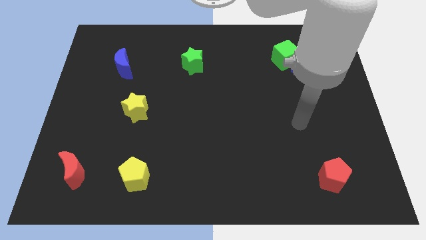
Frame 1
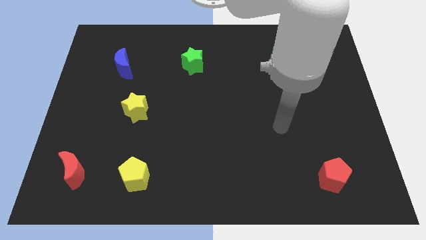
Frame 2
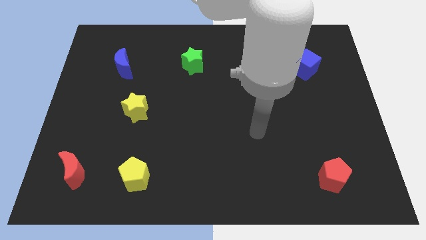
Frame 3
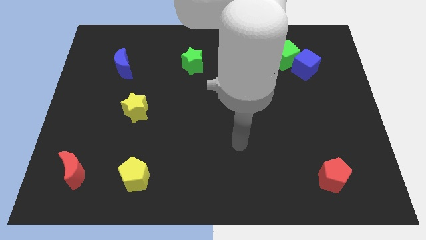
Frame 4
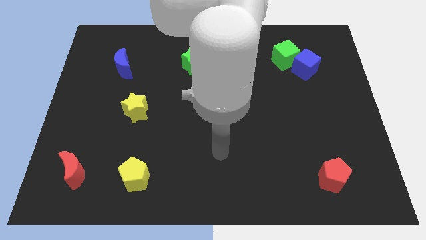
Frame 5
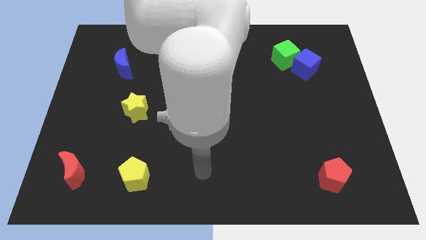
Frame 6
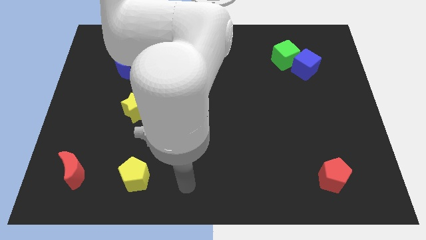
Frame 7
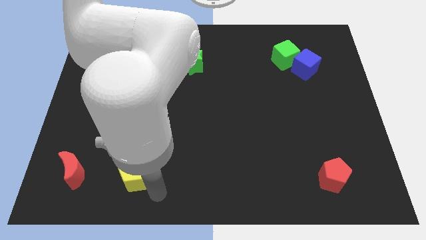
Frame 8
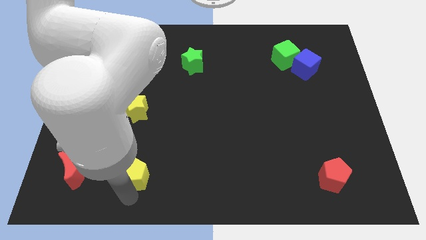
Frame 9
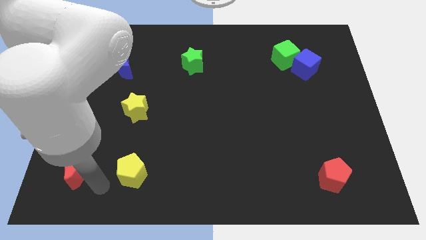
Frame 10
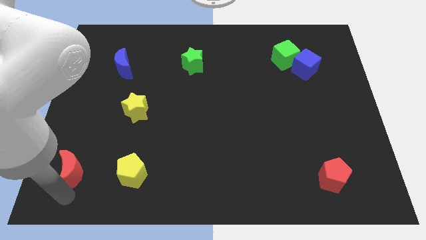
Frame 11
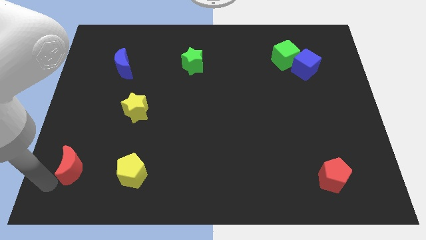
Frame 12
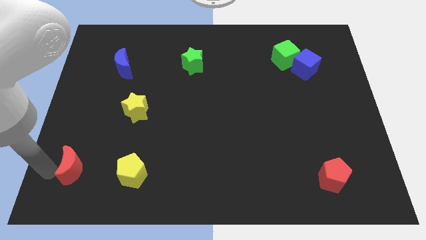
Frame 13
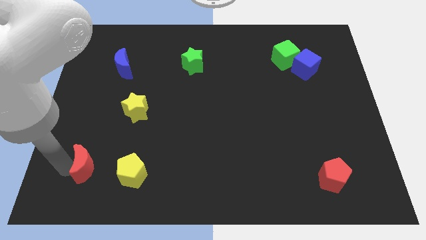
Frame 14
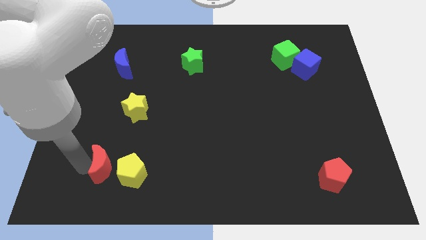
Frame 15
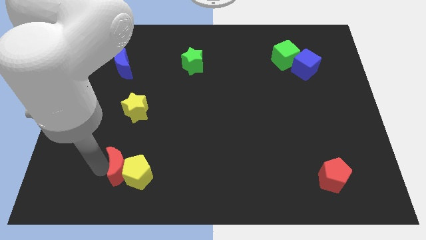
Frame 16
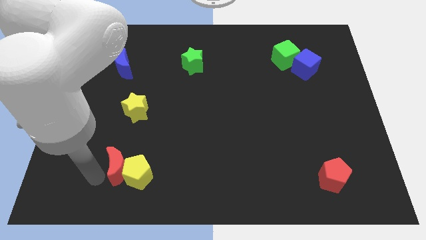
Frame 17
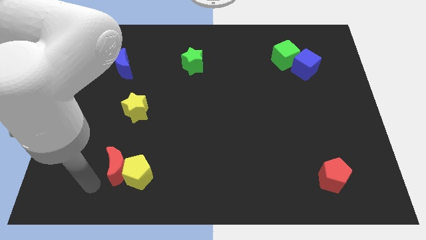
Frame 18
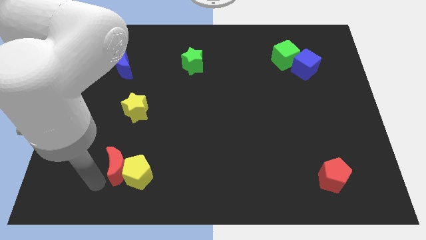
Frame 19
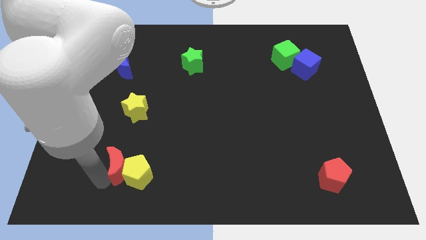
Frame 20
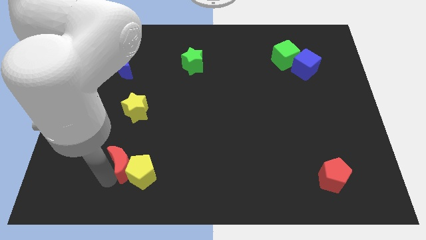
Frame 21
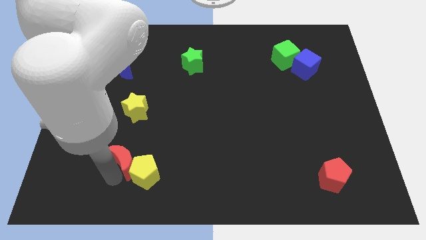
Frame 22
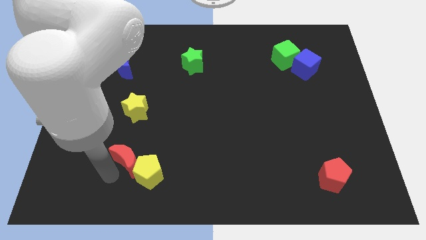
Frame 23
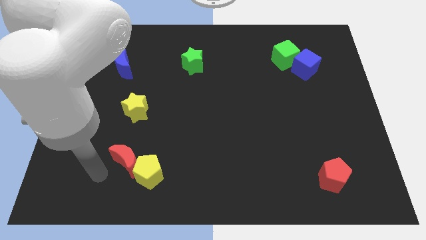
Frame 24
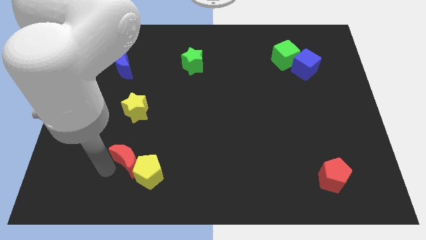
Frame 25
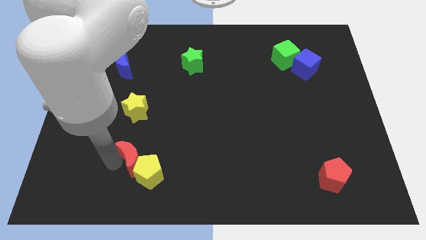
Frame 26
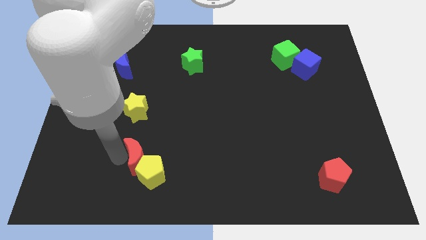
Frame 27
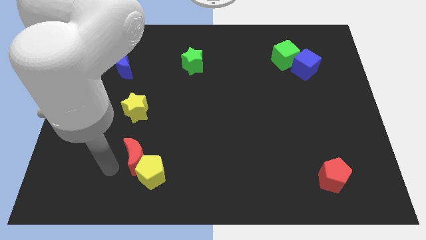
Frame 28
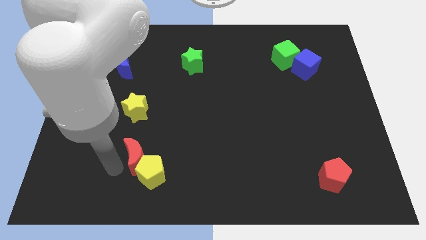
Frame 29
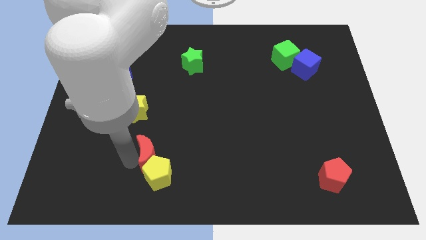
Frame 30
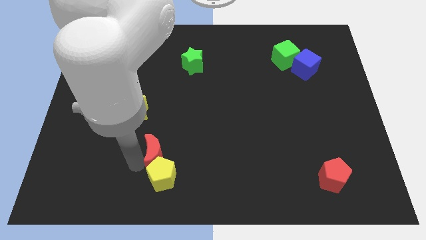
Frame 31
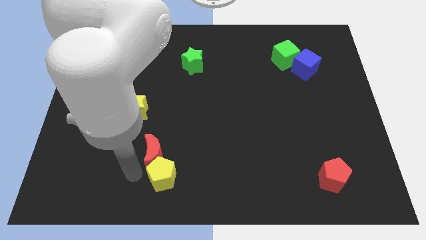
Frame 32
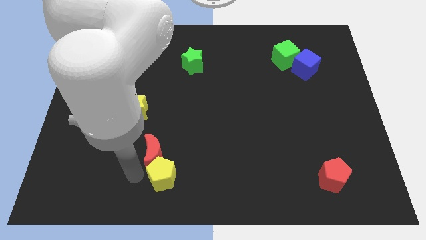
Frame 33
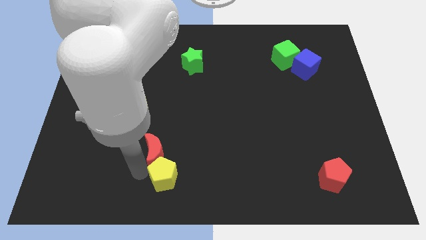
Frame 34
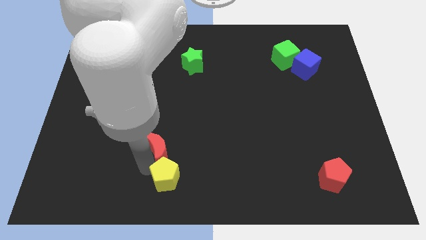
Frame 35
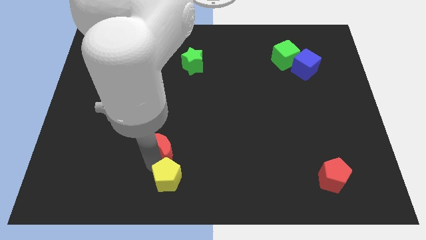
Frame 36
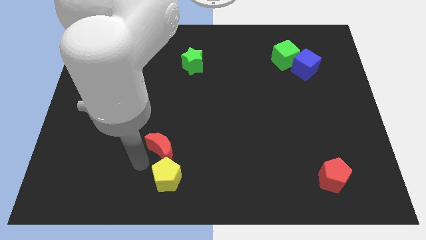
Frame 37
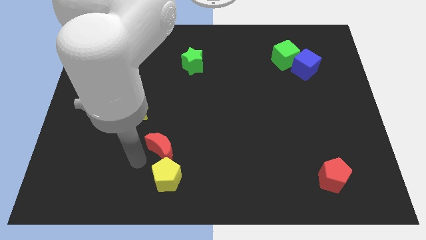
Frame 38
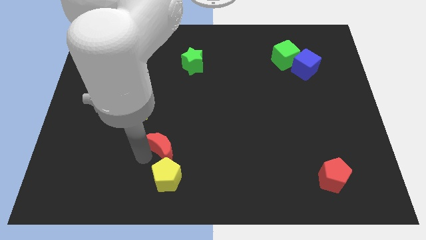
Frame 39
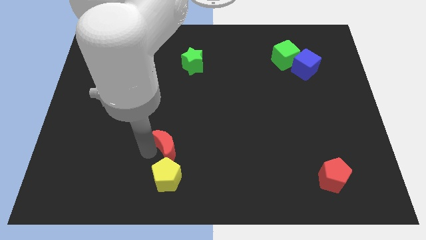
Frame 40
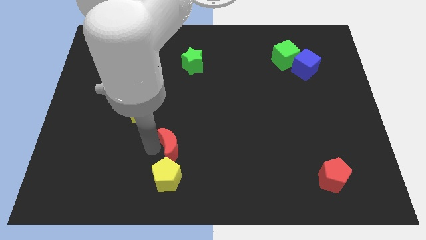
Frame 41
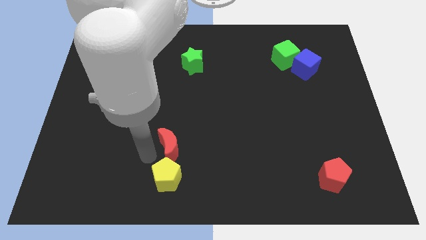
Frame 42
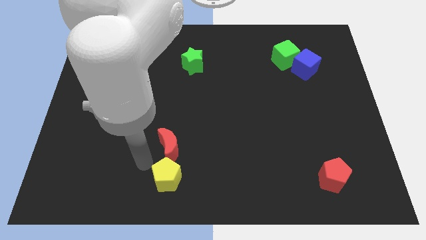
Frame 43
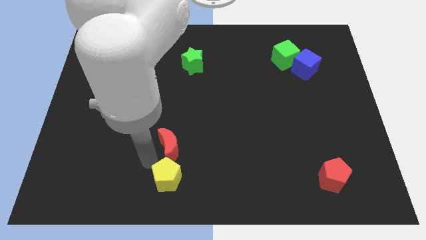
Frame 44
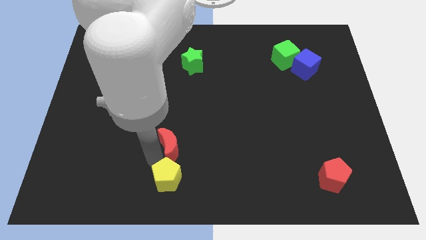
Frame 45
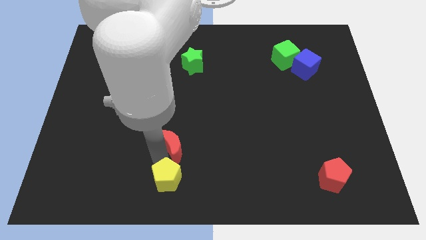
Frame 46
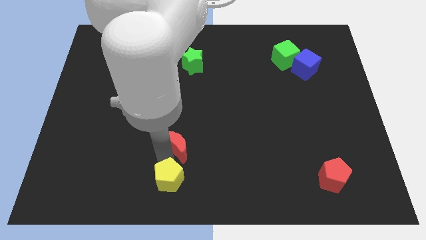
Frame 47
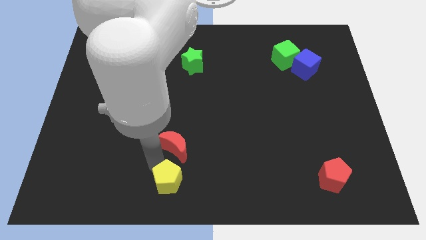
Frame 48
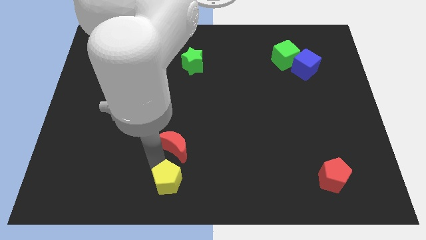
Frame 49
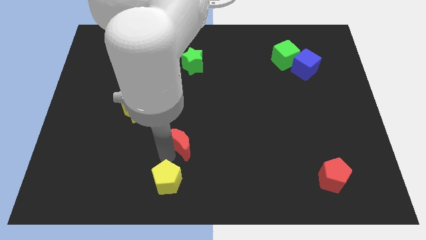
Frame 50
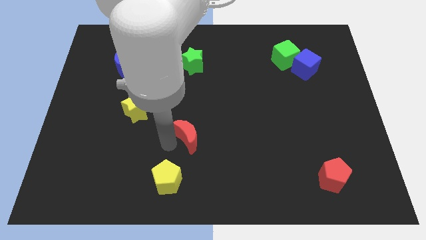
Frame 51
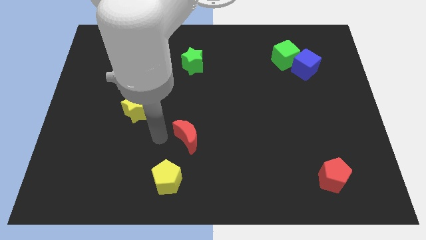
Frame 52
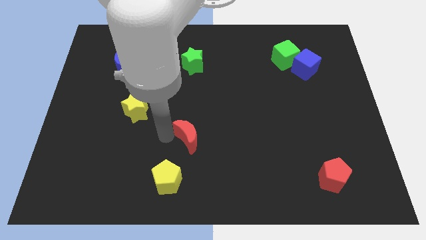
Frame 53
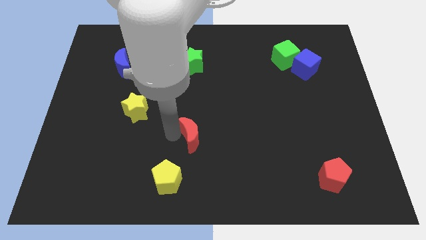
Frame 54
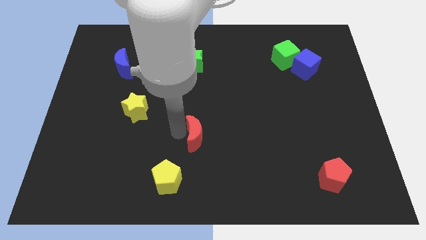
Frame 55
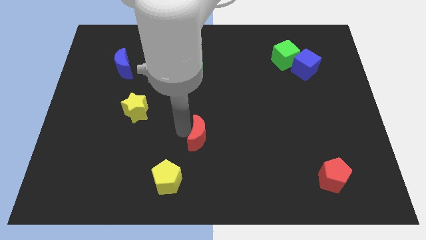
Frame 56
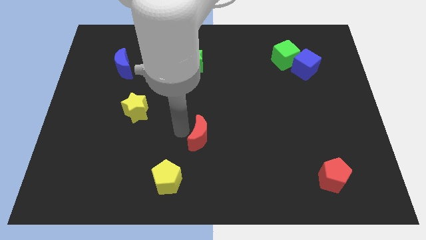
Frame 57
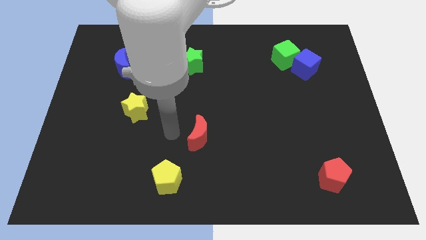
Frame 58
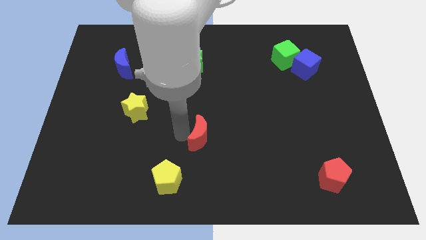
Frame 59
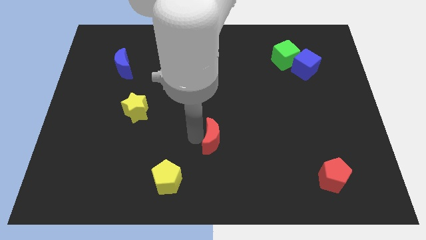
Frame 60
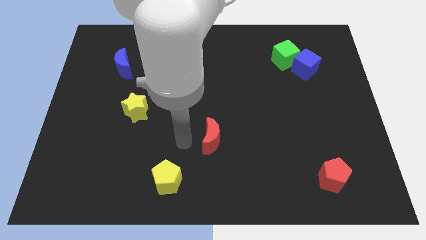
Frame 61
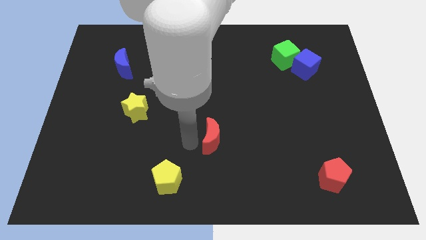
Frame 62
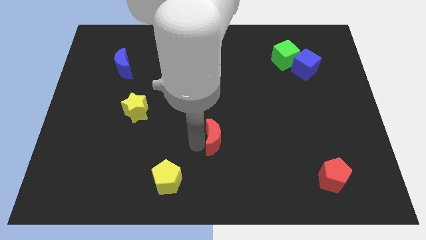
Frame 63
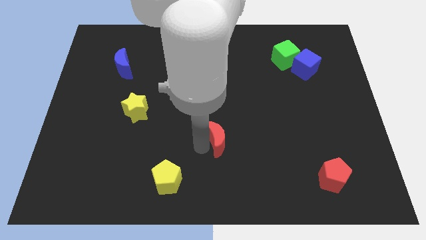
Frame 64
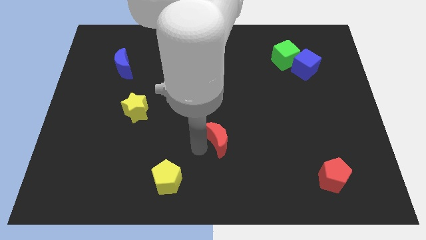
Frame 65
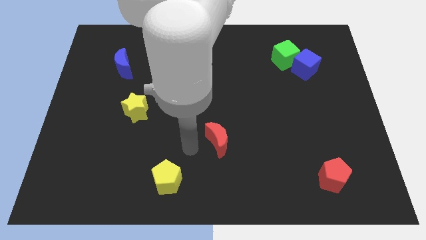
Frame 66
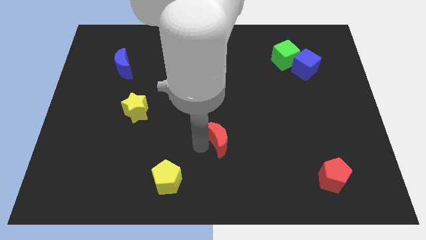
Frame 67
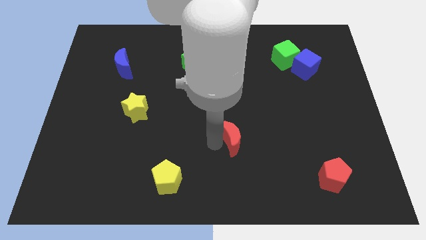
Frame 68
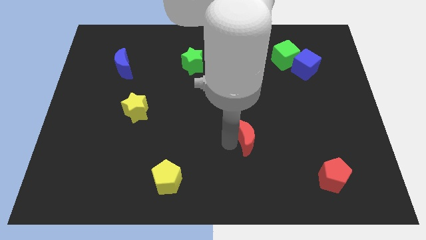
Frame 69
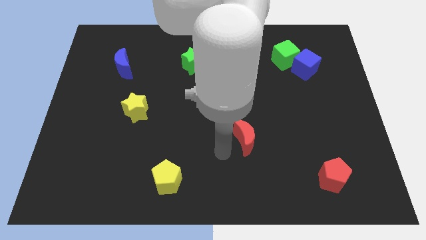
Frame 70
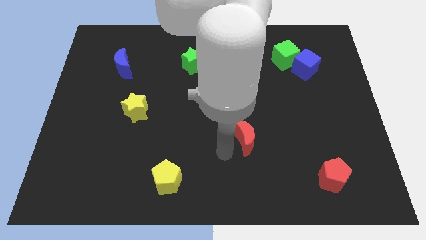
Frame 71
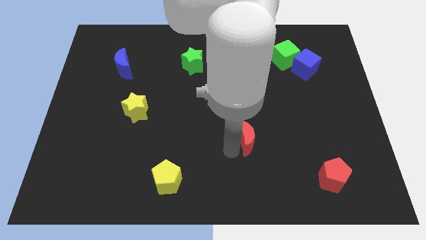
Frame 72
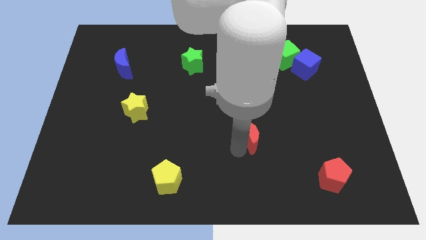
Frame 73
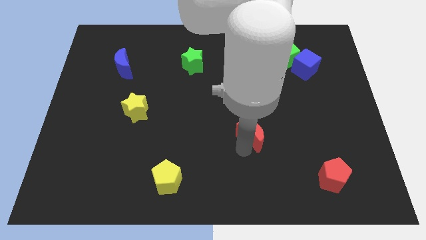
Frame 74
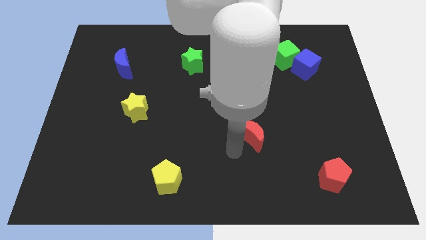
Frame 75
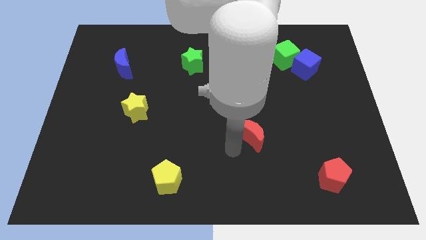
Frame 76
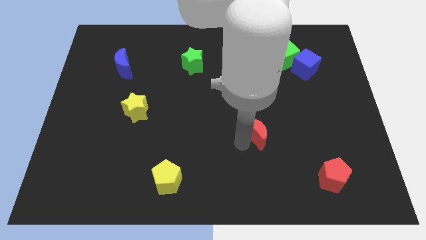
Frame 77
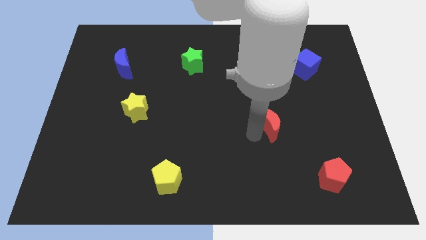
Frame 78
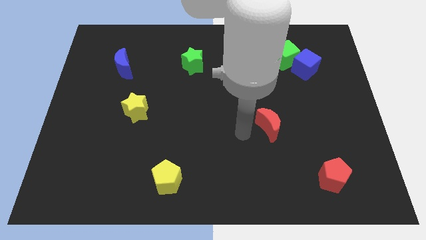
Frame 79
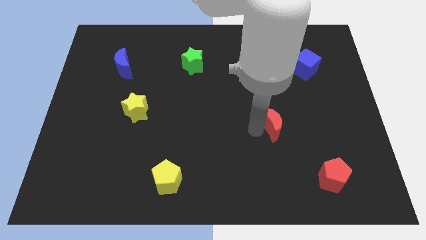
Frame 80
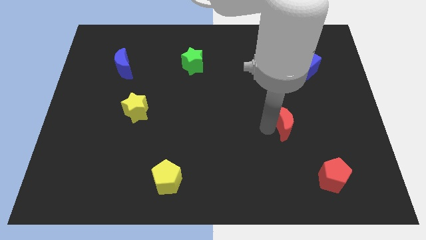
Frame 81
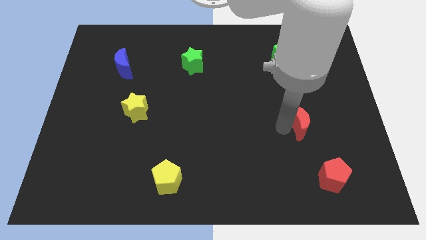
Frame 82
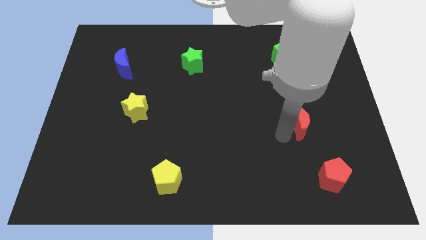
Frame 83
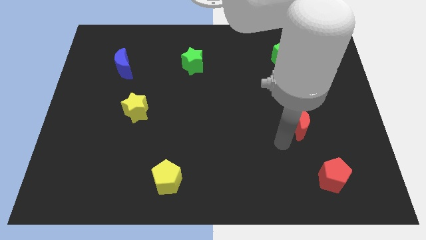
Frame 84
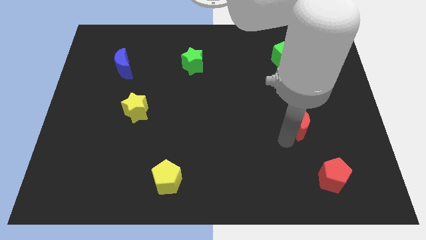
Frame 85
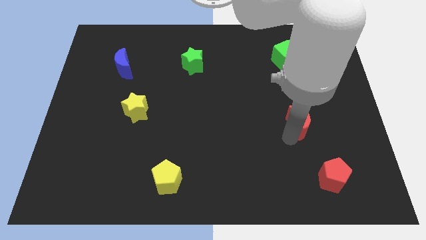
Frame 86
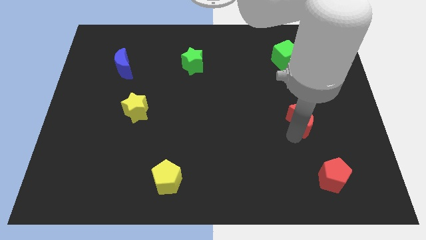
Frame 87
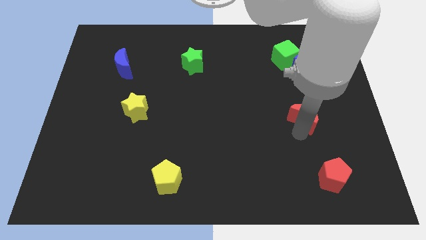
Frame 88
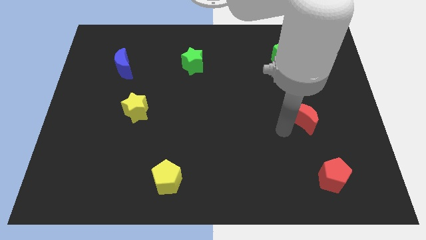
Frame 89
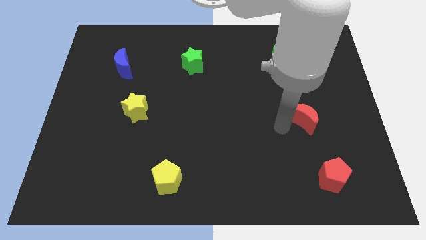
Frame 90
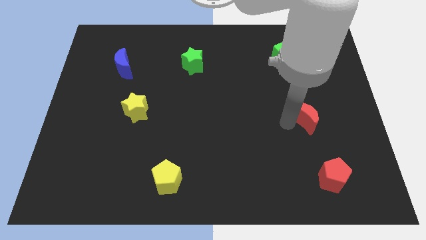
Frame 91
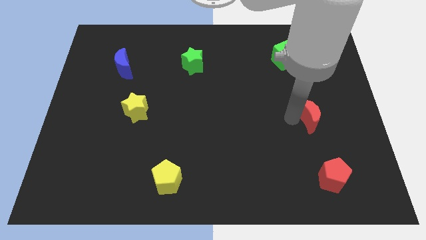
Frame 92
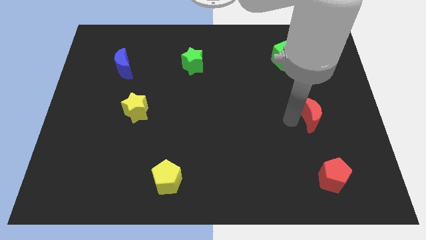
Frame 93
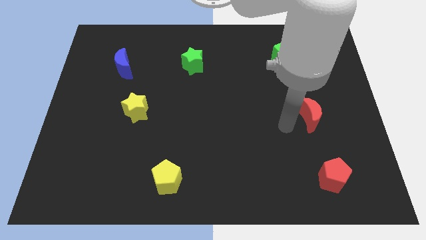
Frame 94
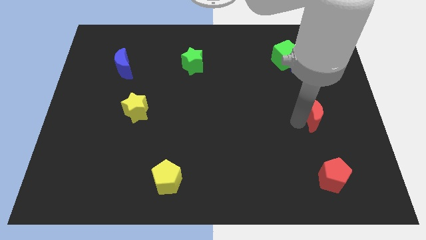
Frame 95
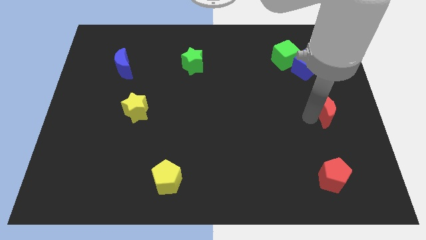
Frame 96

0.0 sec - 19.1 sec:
put the red moon to the center right
